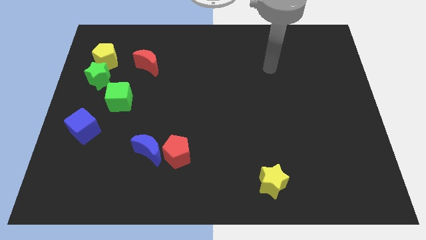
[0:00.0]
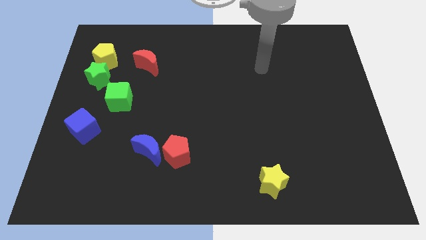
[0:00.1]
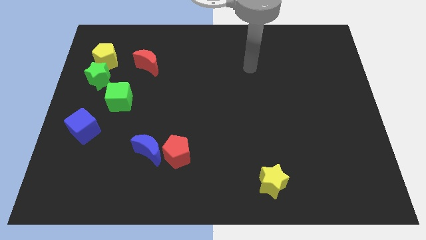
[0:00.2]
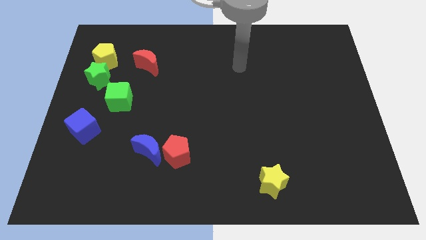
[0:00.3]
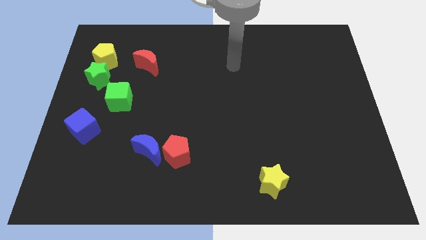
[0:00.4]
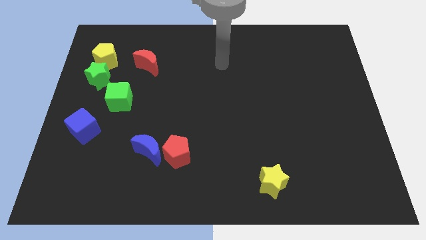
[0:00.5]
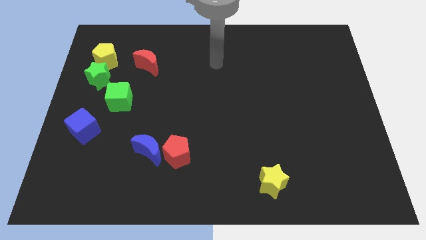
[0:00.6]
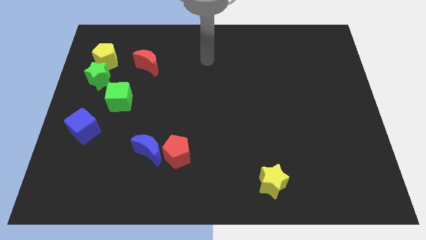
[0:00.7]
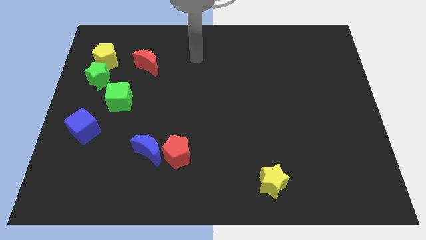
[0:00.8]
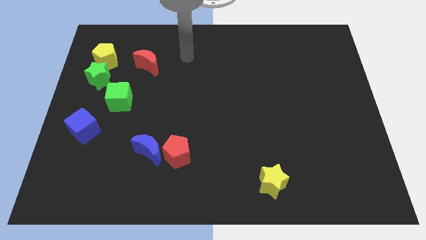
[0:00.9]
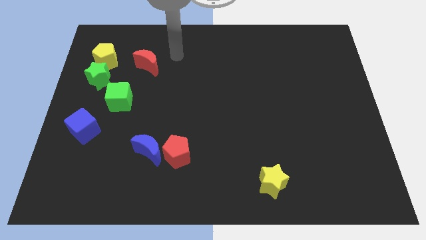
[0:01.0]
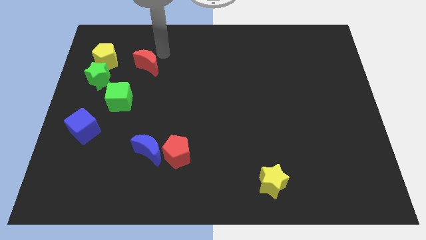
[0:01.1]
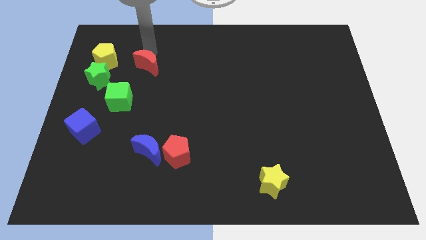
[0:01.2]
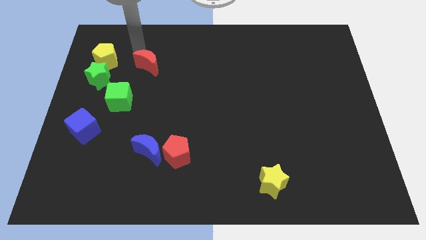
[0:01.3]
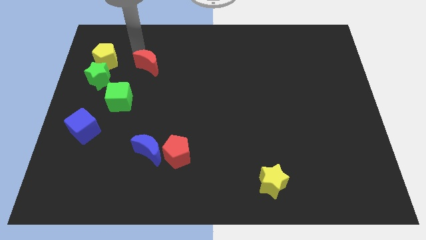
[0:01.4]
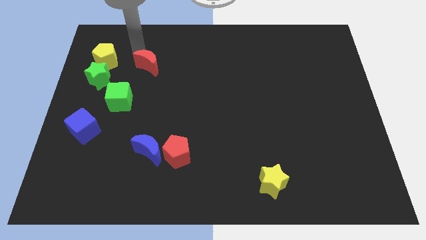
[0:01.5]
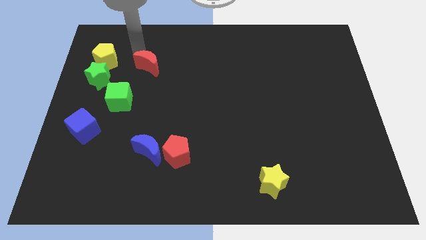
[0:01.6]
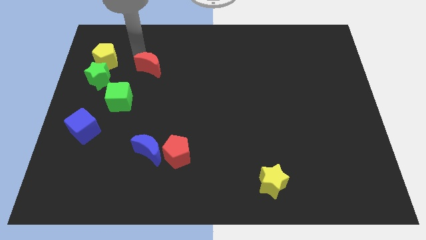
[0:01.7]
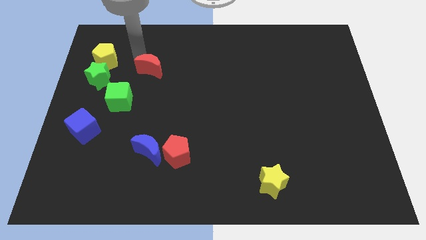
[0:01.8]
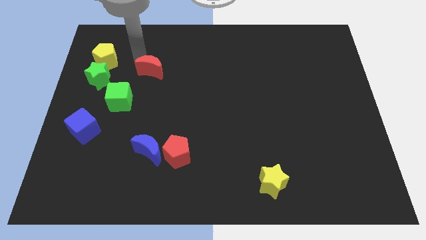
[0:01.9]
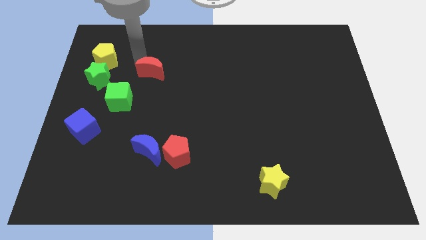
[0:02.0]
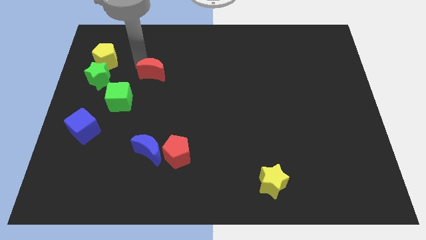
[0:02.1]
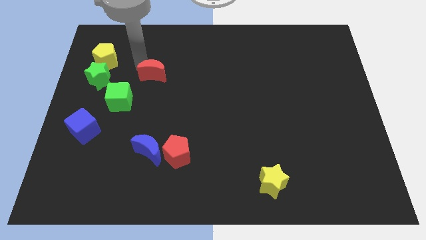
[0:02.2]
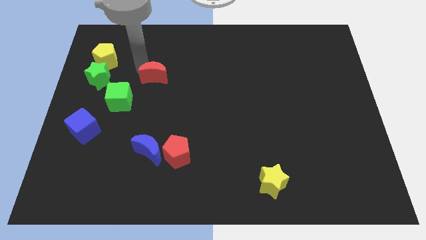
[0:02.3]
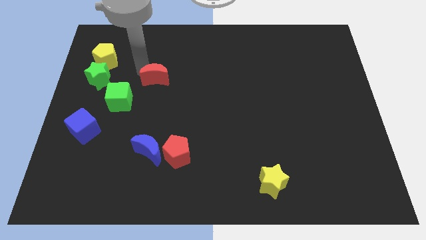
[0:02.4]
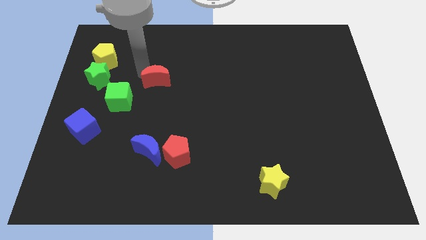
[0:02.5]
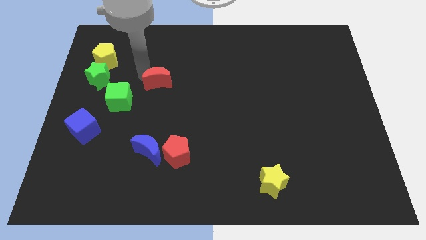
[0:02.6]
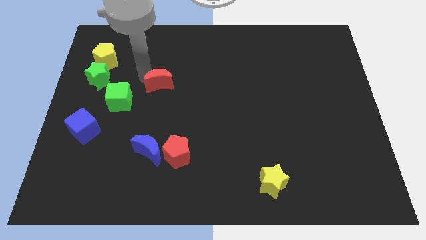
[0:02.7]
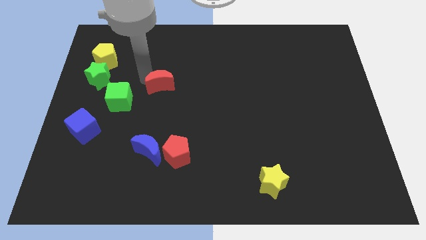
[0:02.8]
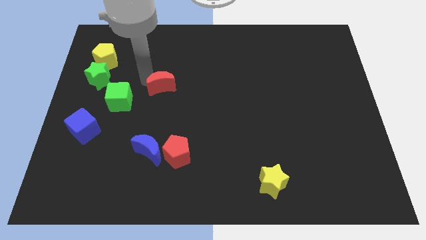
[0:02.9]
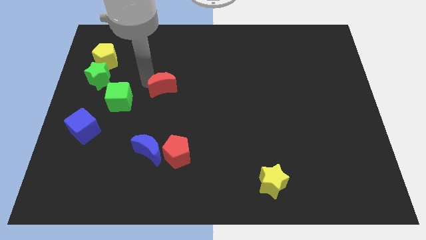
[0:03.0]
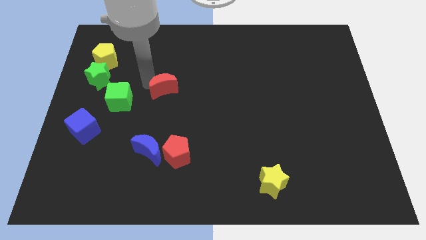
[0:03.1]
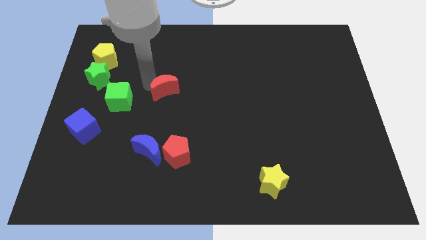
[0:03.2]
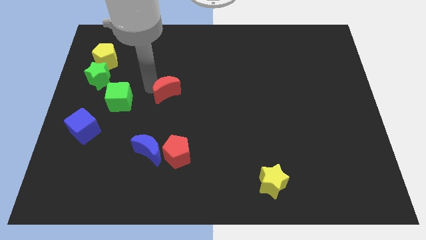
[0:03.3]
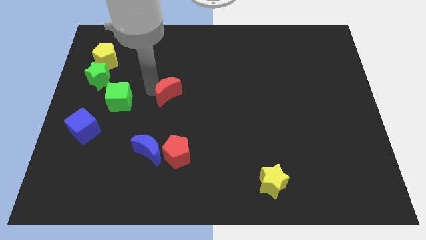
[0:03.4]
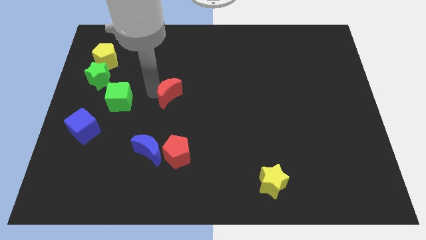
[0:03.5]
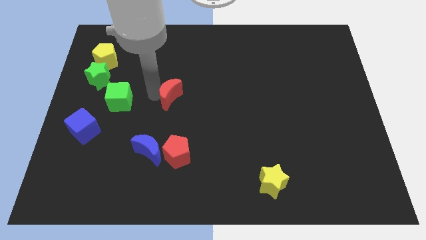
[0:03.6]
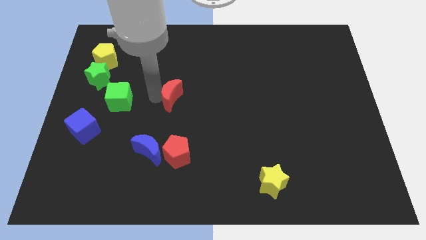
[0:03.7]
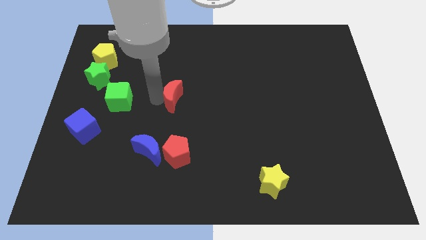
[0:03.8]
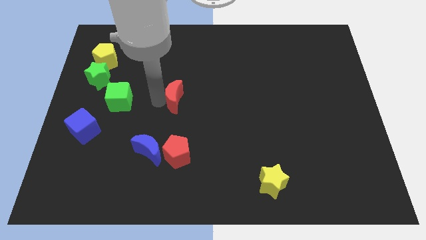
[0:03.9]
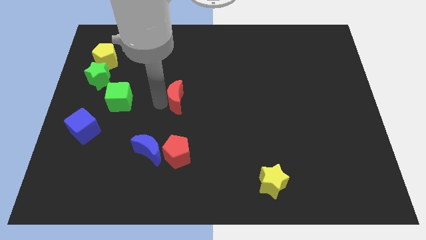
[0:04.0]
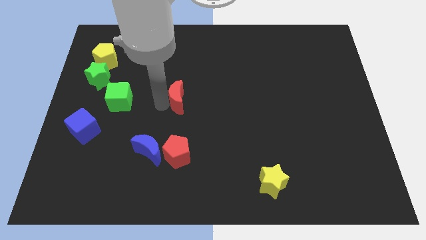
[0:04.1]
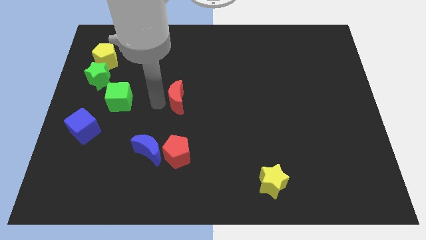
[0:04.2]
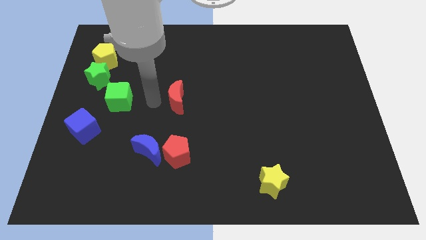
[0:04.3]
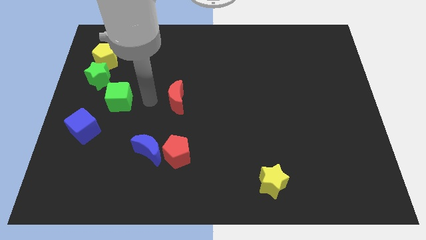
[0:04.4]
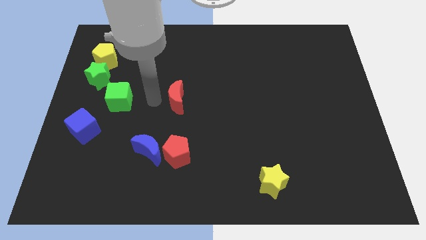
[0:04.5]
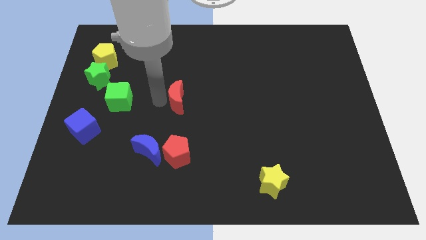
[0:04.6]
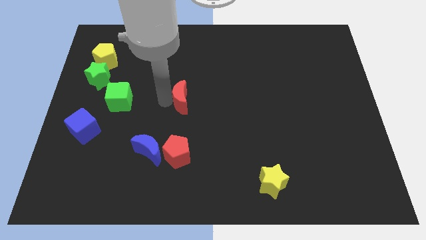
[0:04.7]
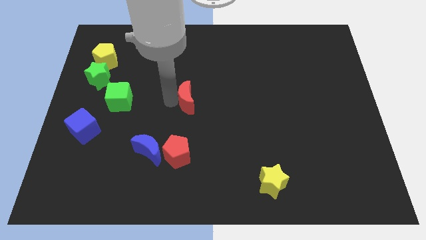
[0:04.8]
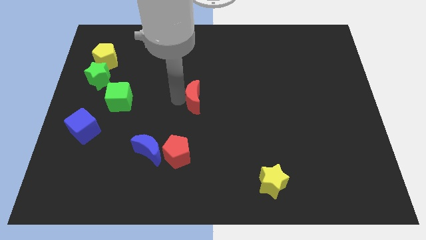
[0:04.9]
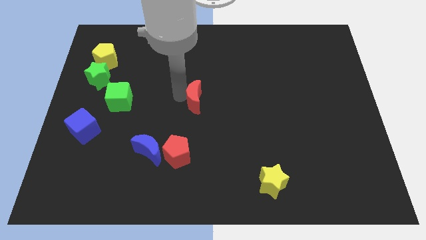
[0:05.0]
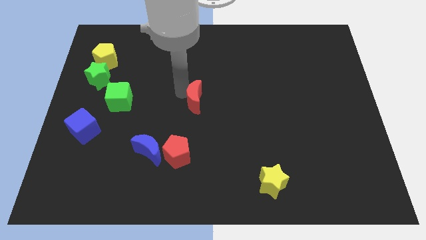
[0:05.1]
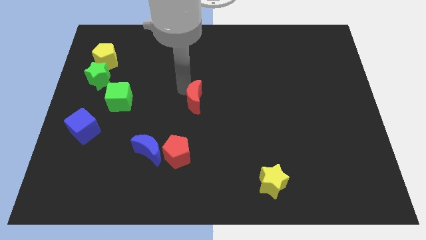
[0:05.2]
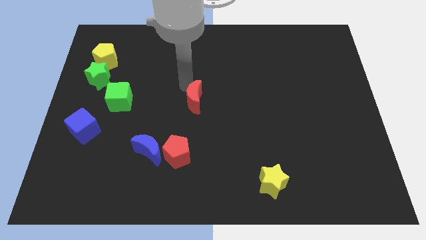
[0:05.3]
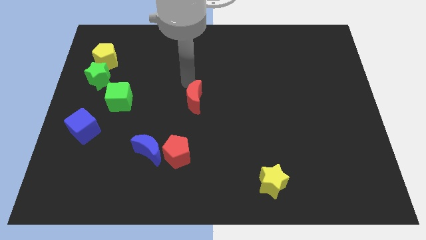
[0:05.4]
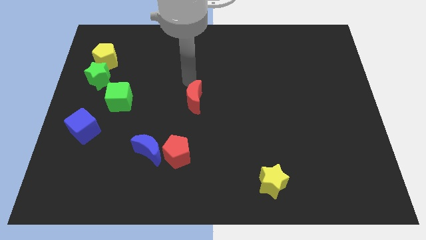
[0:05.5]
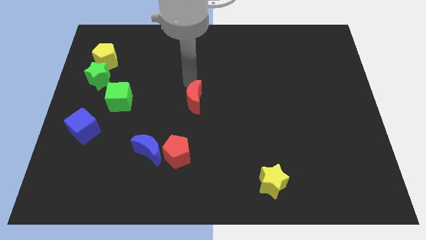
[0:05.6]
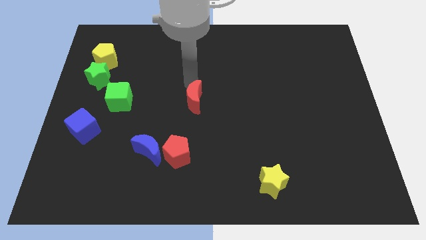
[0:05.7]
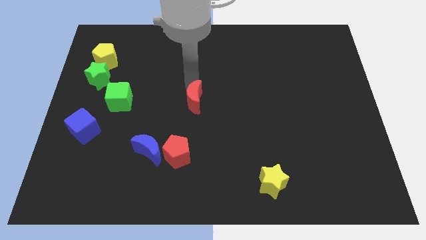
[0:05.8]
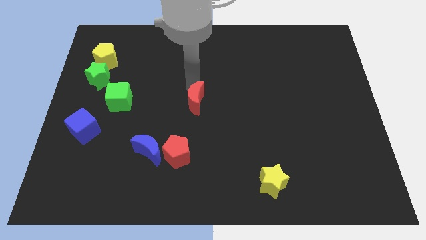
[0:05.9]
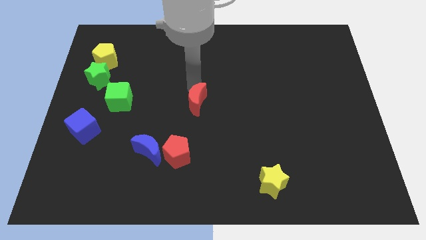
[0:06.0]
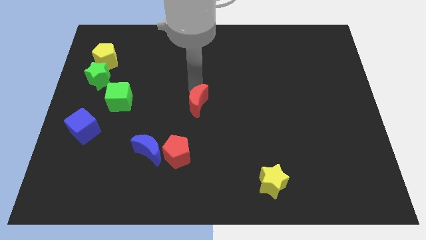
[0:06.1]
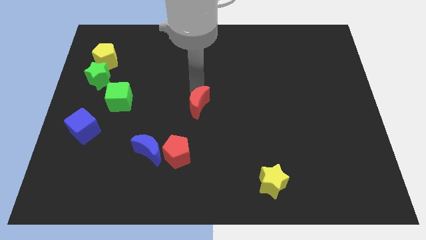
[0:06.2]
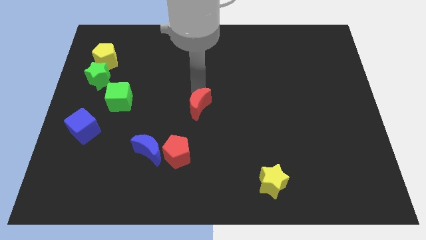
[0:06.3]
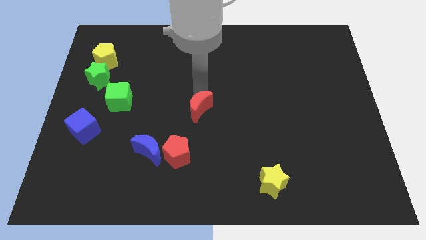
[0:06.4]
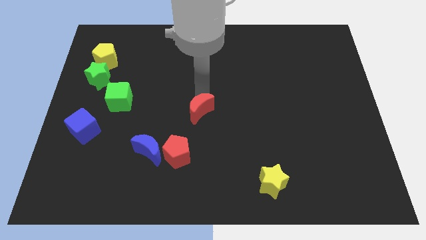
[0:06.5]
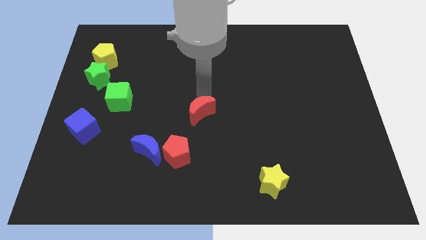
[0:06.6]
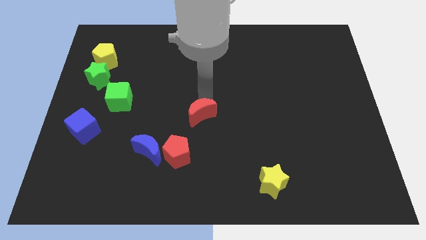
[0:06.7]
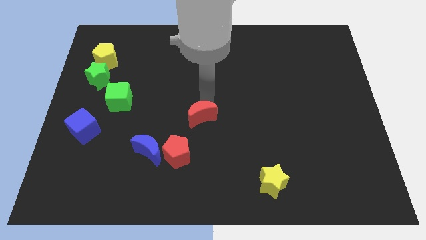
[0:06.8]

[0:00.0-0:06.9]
push the red moon diagonally up and to the right of the red pentagon

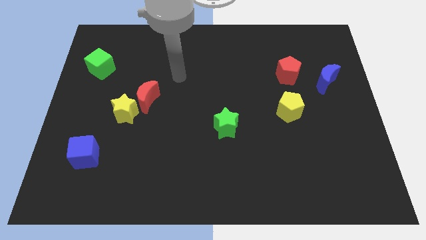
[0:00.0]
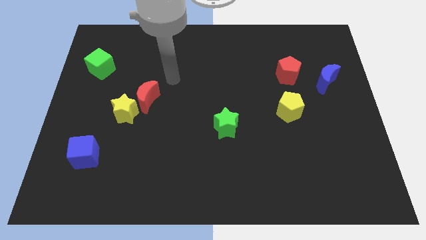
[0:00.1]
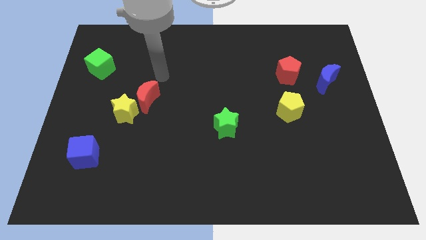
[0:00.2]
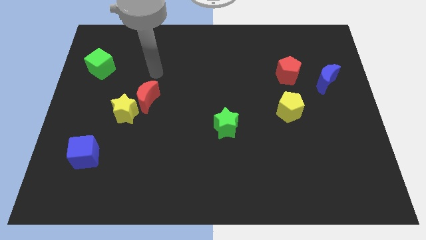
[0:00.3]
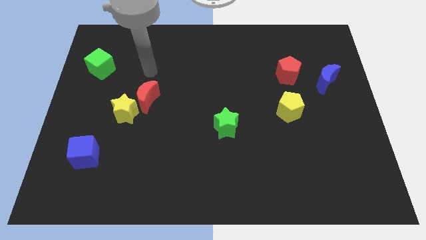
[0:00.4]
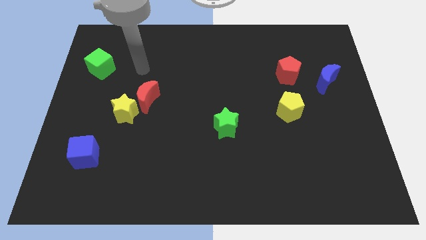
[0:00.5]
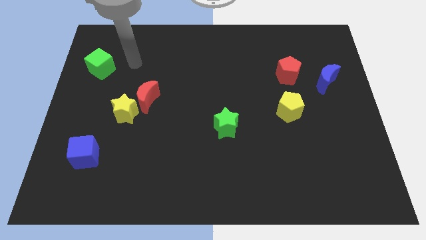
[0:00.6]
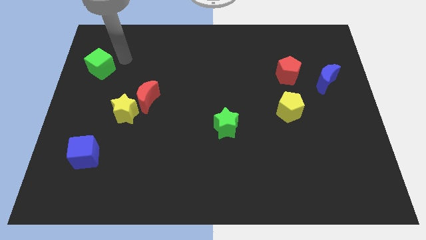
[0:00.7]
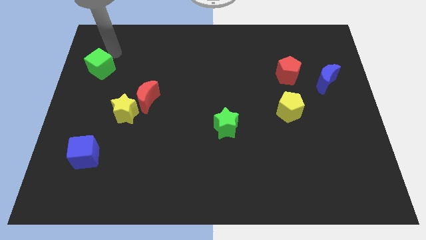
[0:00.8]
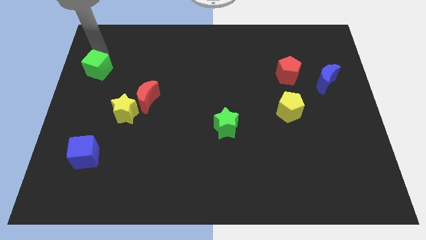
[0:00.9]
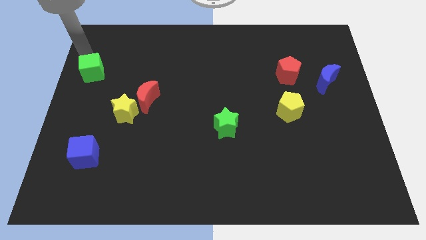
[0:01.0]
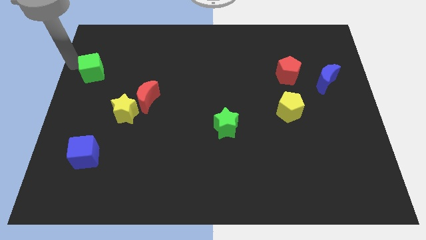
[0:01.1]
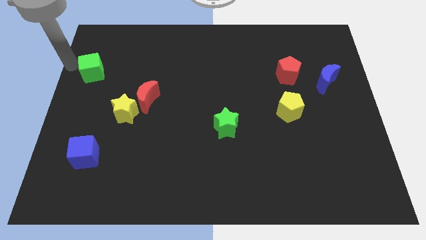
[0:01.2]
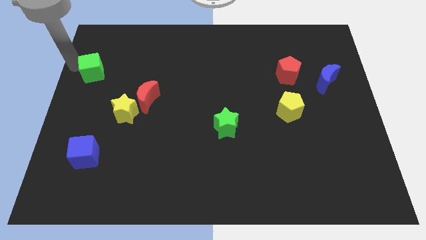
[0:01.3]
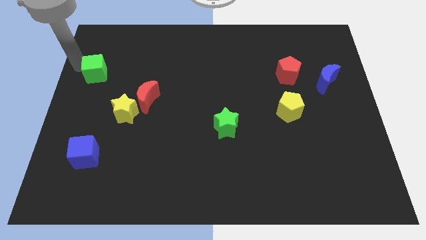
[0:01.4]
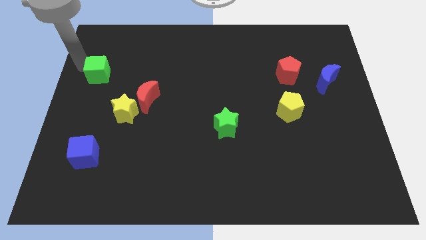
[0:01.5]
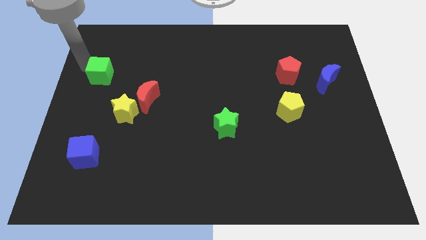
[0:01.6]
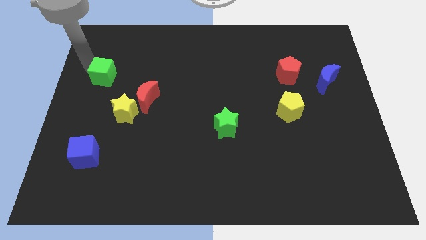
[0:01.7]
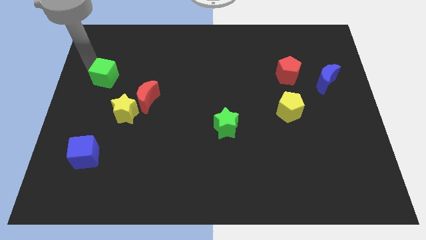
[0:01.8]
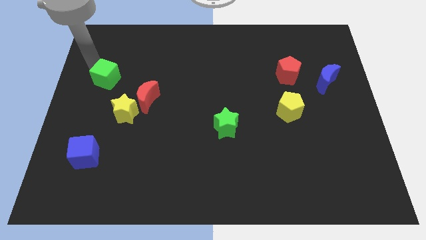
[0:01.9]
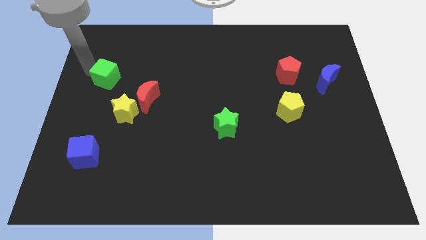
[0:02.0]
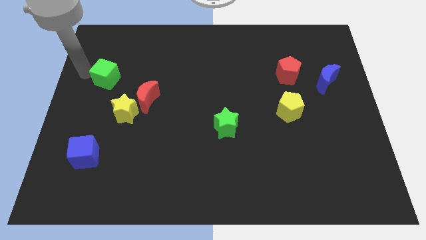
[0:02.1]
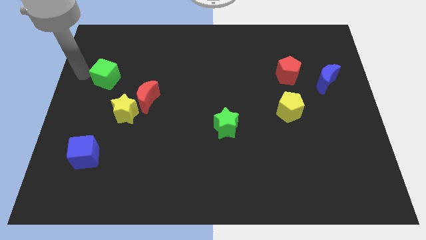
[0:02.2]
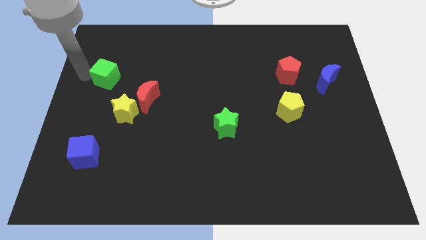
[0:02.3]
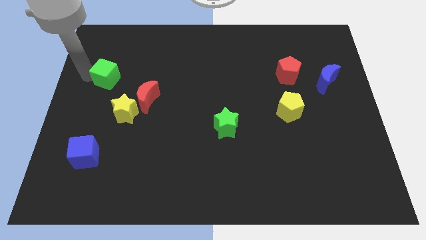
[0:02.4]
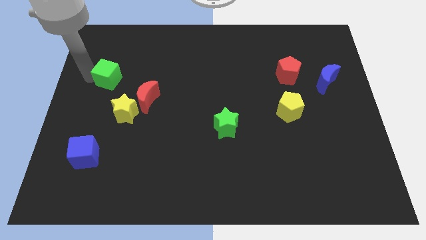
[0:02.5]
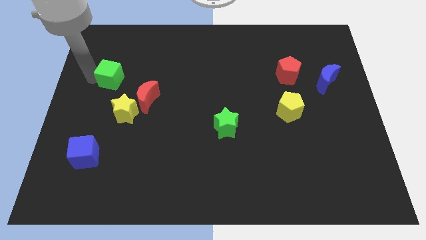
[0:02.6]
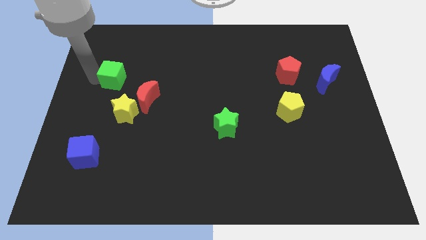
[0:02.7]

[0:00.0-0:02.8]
move the green cube above the yellow star
